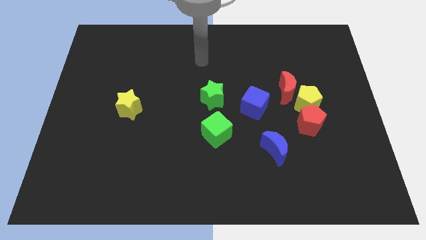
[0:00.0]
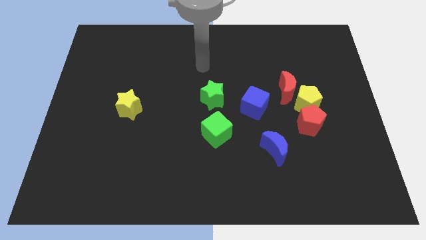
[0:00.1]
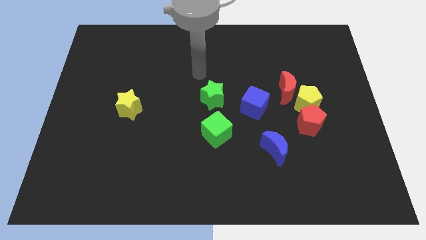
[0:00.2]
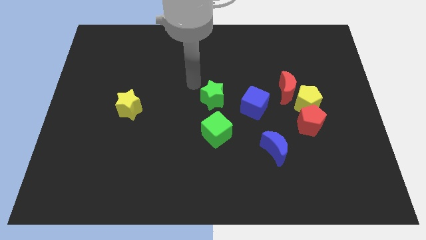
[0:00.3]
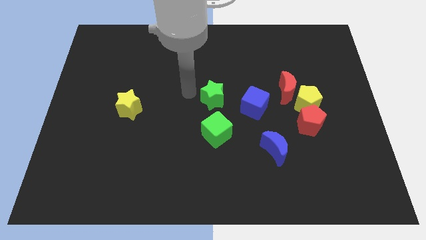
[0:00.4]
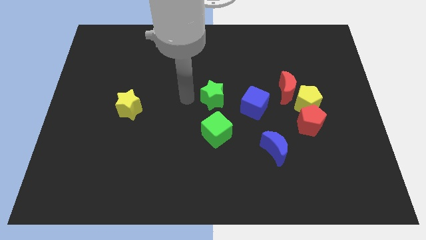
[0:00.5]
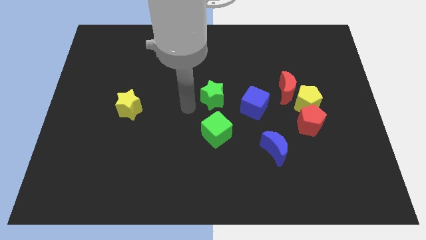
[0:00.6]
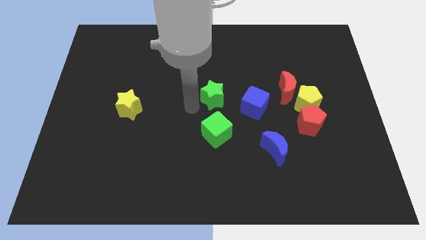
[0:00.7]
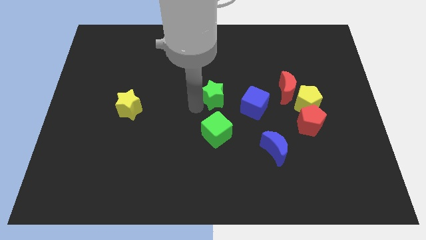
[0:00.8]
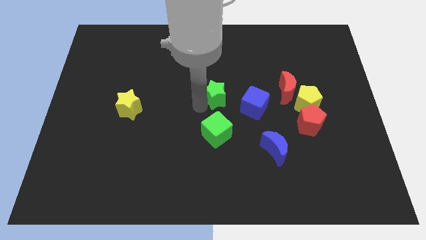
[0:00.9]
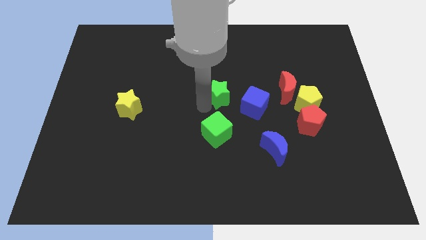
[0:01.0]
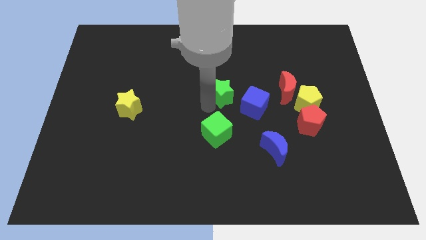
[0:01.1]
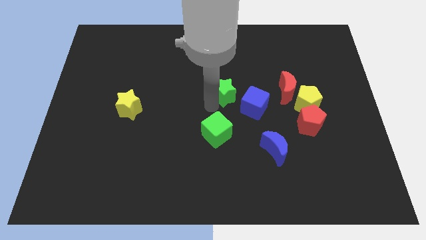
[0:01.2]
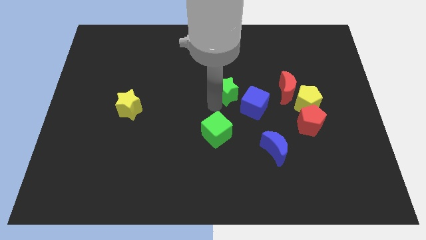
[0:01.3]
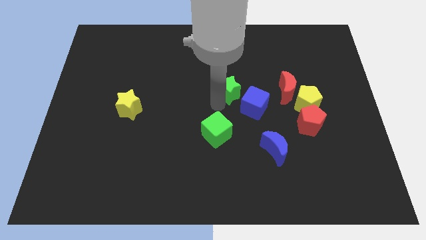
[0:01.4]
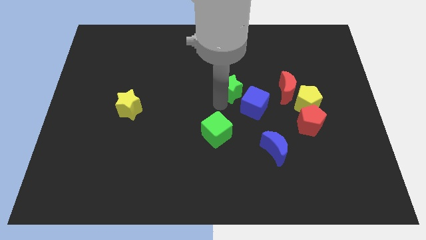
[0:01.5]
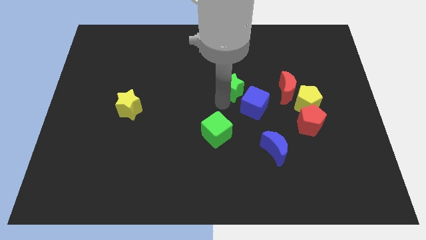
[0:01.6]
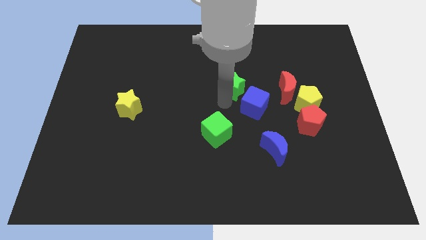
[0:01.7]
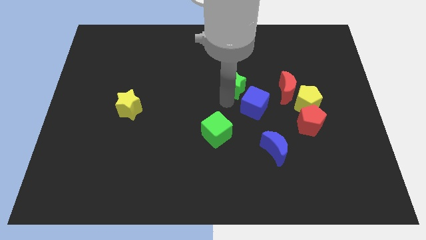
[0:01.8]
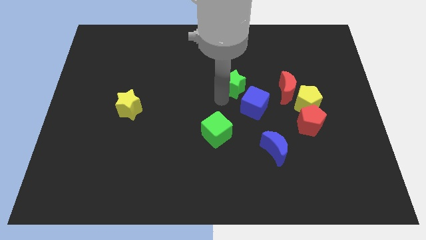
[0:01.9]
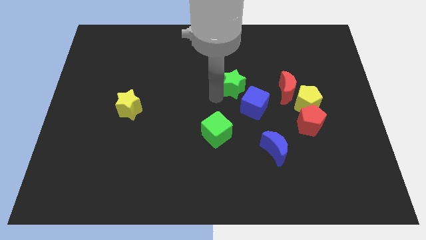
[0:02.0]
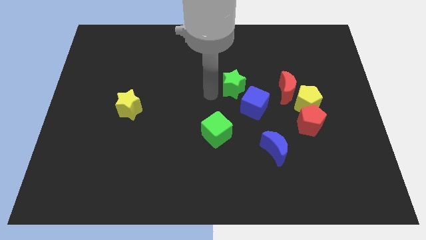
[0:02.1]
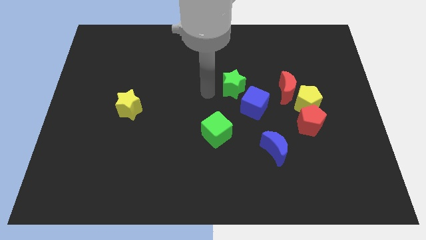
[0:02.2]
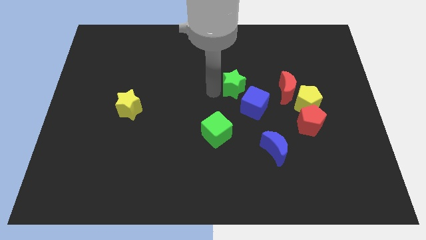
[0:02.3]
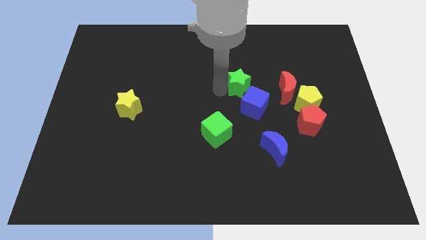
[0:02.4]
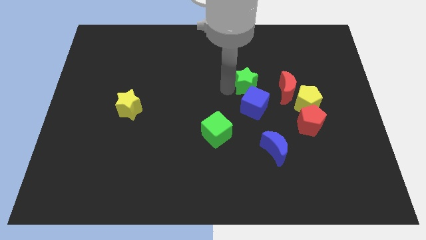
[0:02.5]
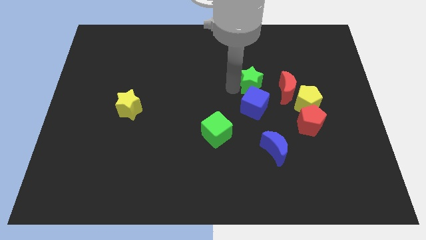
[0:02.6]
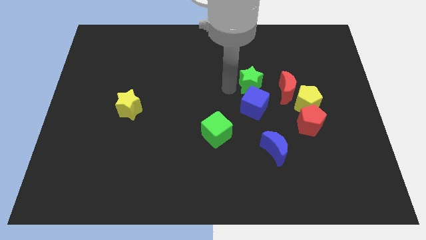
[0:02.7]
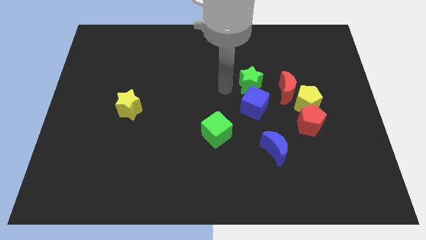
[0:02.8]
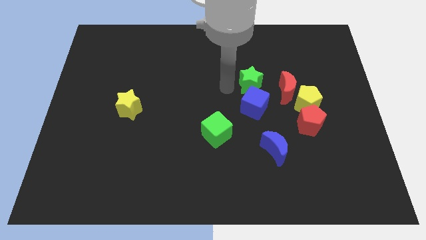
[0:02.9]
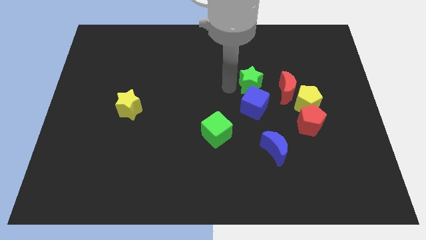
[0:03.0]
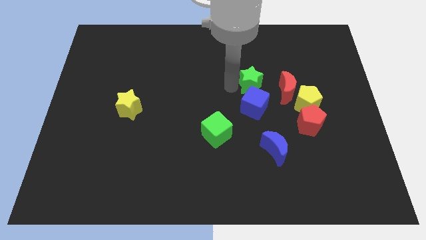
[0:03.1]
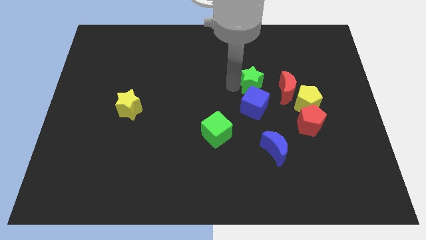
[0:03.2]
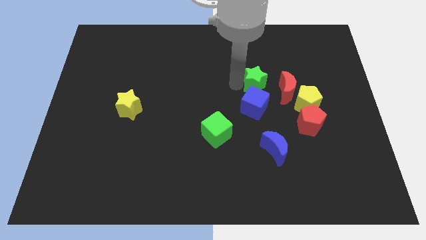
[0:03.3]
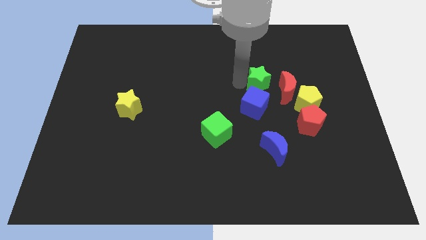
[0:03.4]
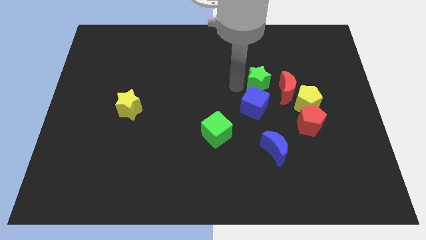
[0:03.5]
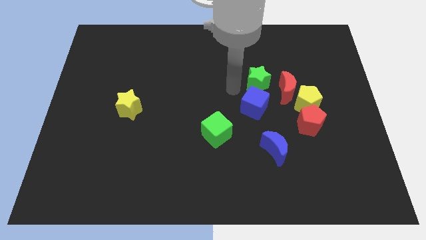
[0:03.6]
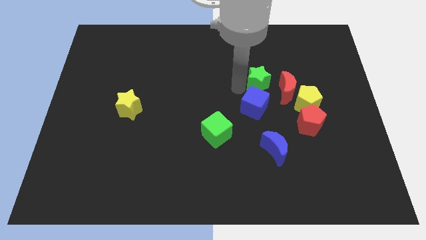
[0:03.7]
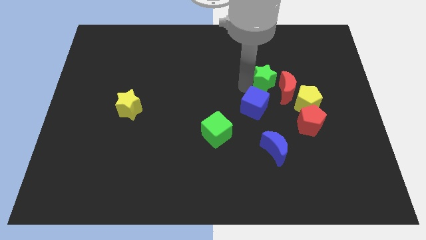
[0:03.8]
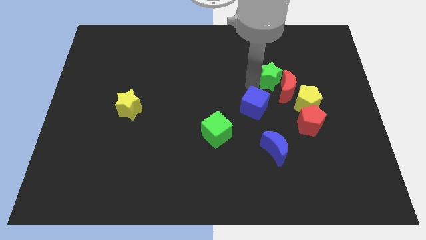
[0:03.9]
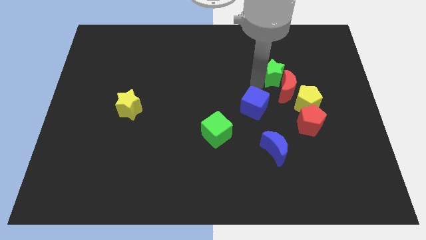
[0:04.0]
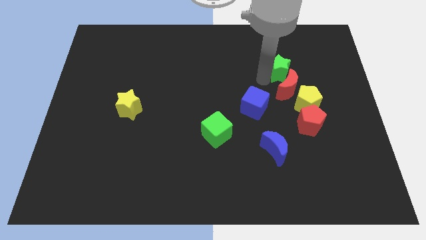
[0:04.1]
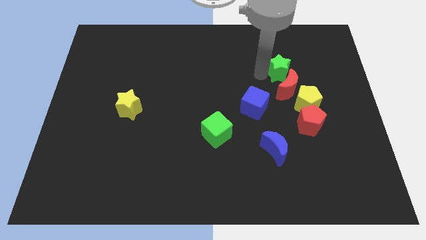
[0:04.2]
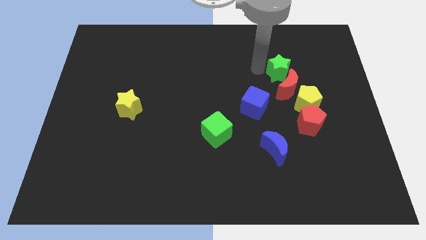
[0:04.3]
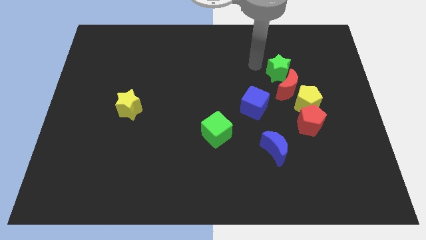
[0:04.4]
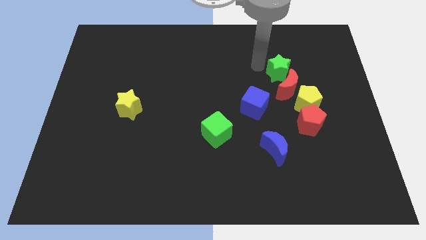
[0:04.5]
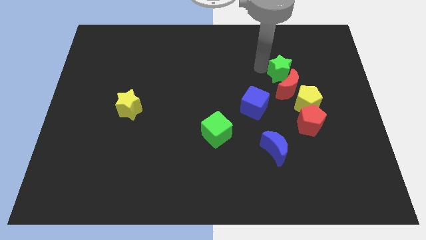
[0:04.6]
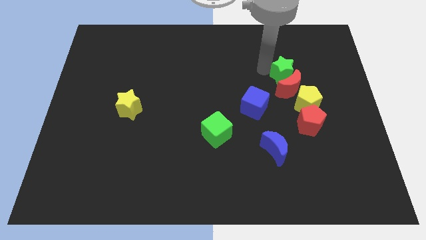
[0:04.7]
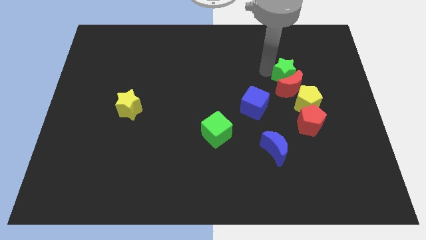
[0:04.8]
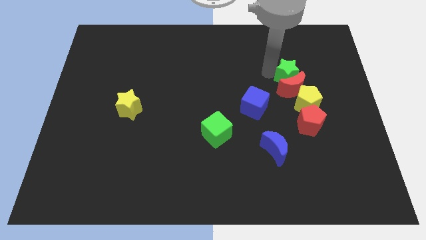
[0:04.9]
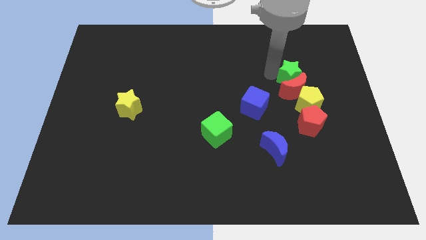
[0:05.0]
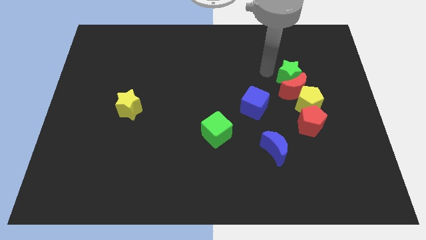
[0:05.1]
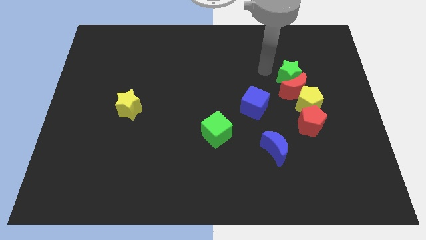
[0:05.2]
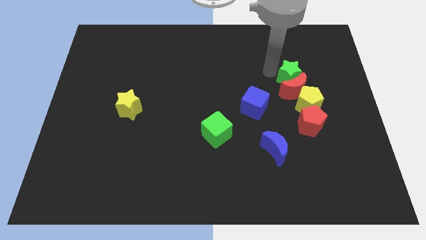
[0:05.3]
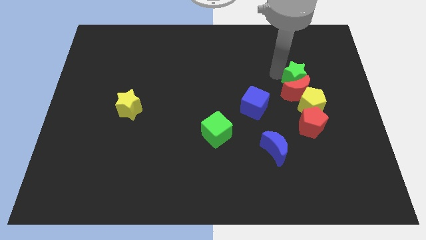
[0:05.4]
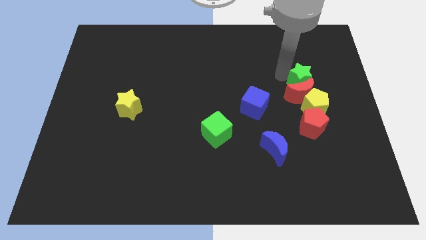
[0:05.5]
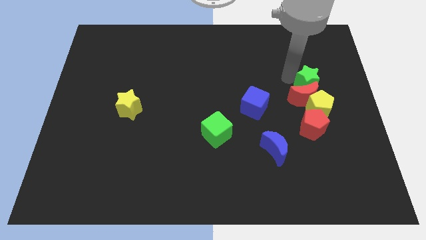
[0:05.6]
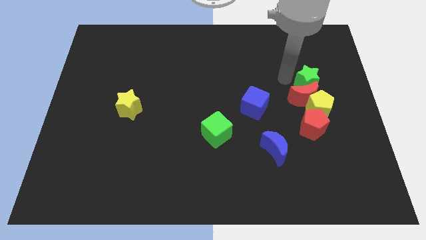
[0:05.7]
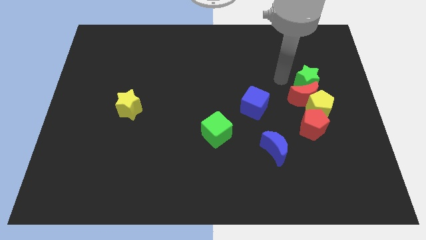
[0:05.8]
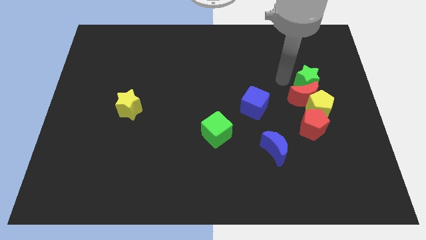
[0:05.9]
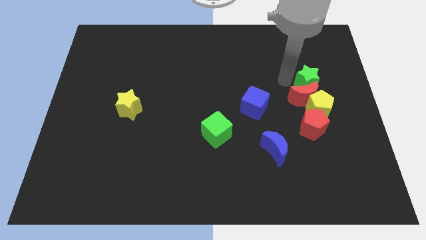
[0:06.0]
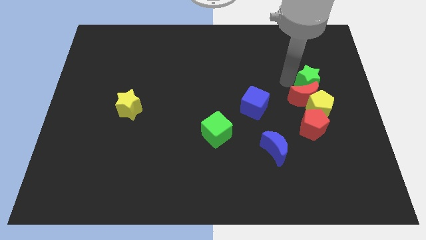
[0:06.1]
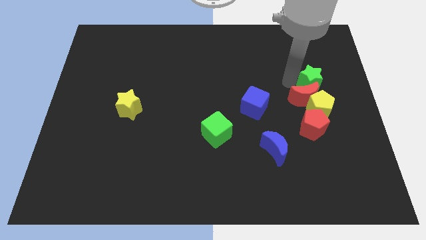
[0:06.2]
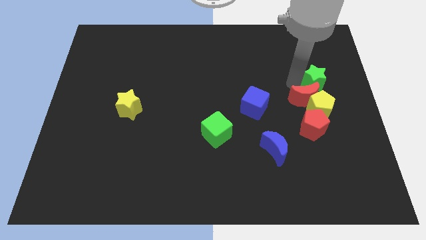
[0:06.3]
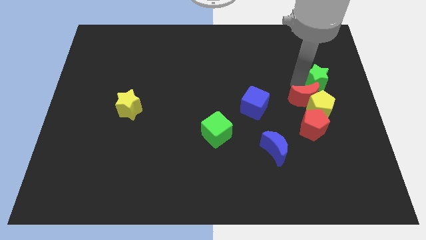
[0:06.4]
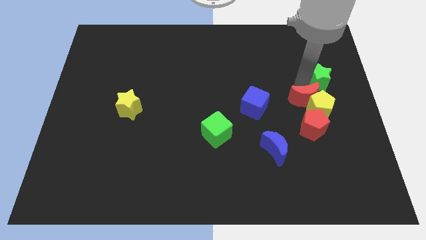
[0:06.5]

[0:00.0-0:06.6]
slide the green star to the right side of the board

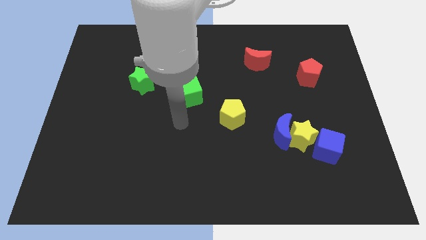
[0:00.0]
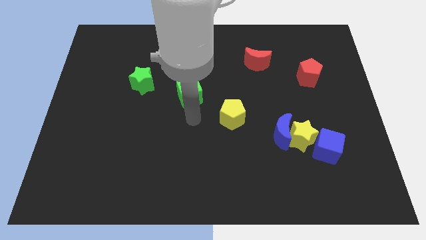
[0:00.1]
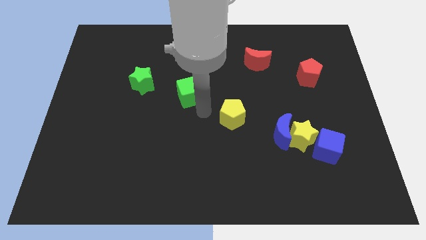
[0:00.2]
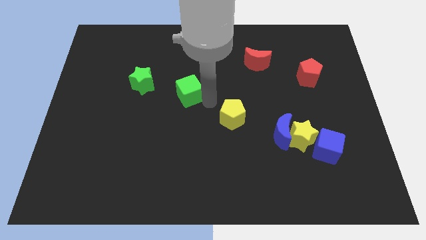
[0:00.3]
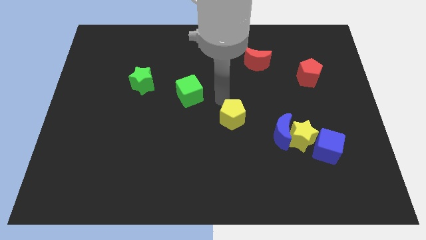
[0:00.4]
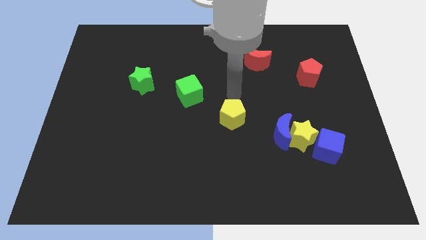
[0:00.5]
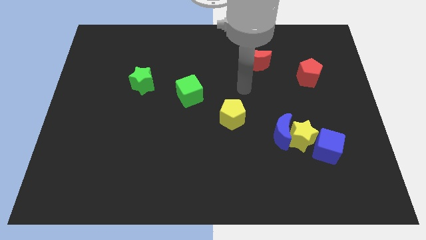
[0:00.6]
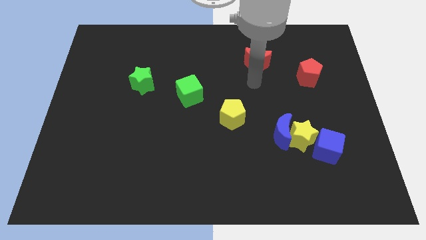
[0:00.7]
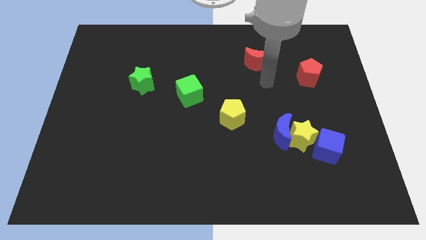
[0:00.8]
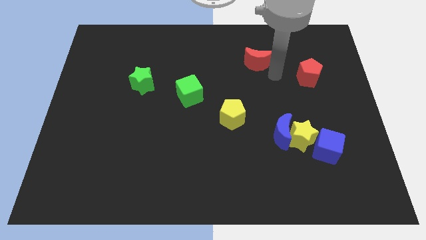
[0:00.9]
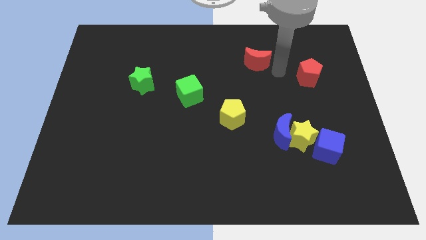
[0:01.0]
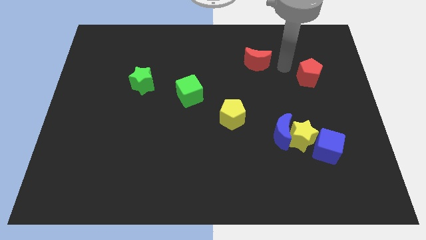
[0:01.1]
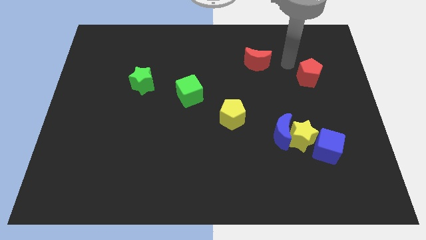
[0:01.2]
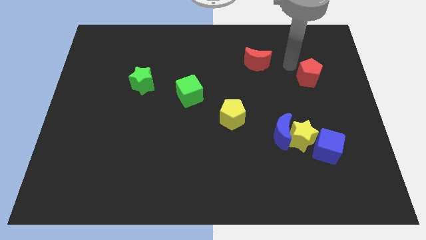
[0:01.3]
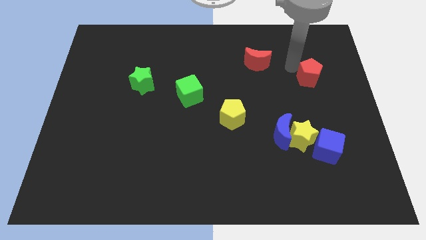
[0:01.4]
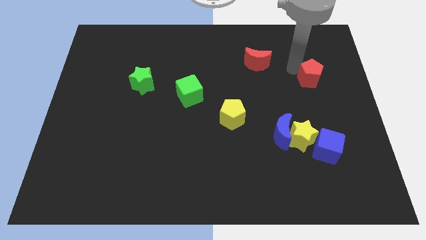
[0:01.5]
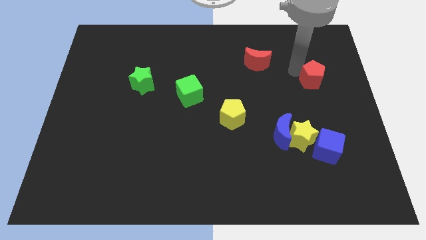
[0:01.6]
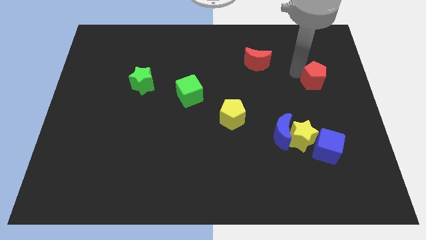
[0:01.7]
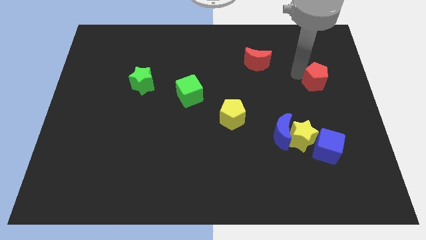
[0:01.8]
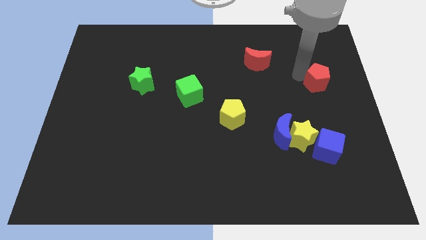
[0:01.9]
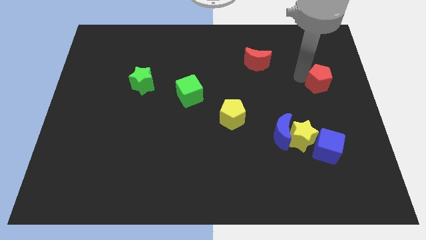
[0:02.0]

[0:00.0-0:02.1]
move the red pentagon to the right side
